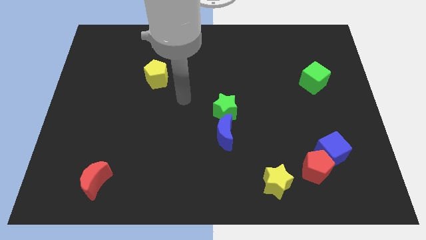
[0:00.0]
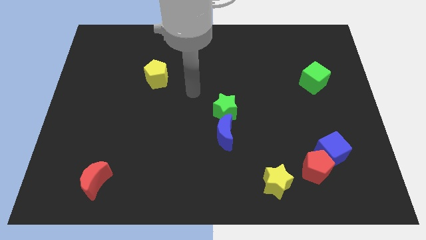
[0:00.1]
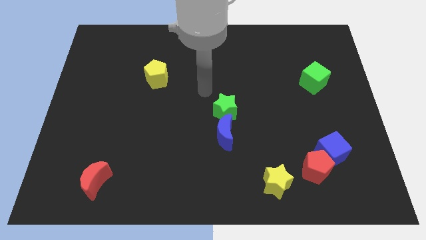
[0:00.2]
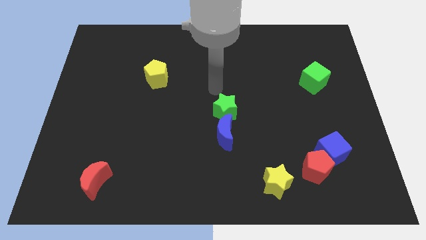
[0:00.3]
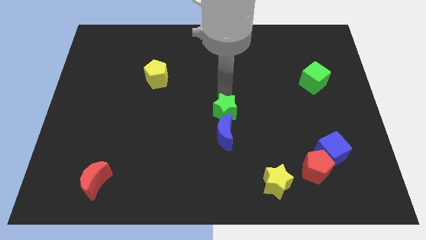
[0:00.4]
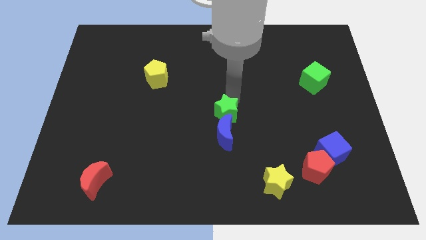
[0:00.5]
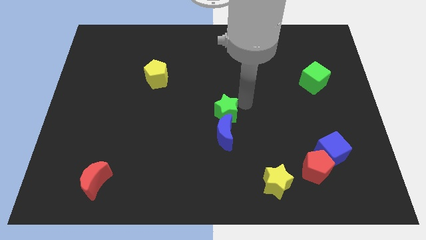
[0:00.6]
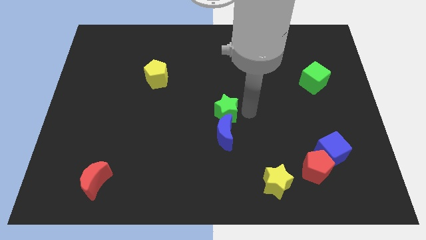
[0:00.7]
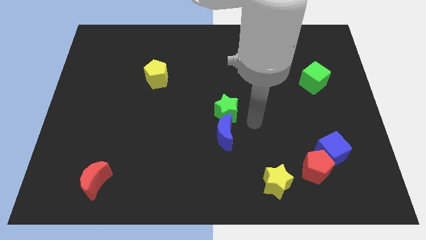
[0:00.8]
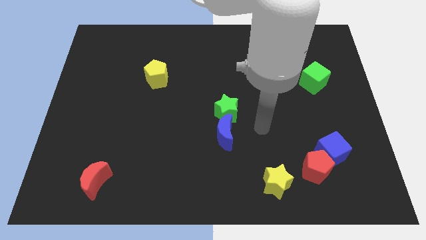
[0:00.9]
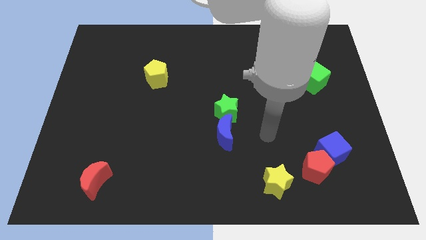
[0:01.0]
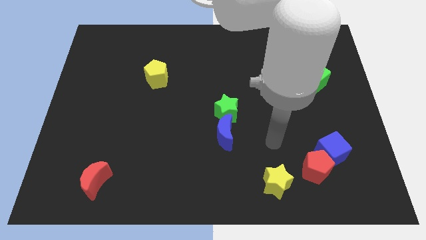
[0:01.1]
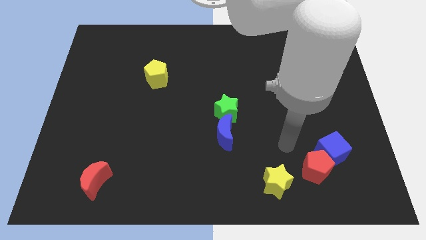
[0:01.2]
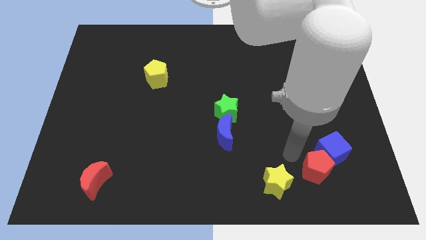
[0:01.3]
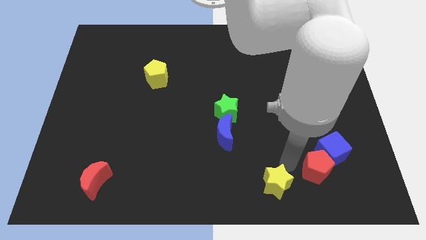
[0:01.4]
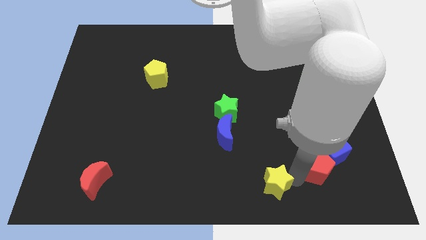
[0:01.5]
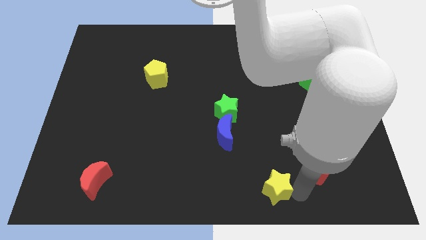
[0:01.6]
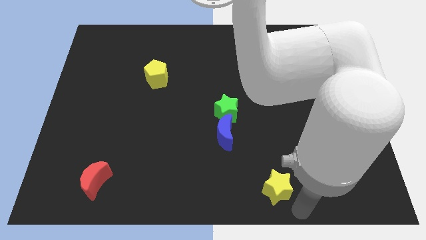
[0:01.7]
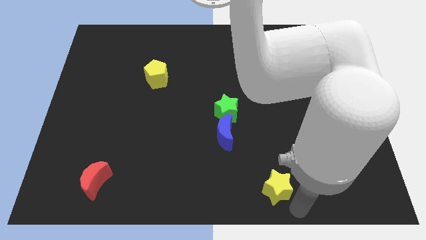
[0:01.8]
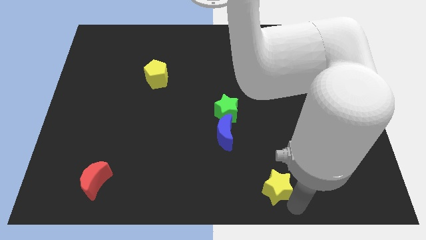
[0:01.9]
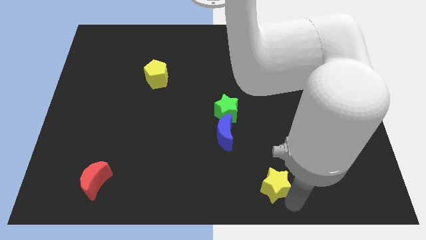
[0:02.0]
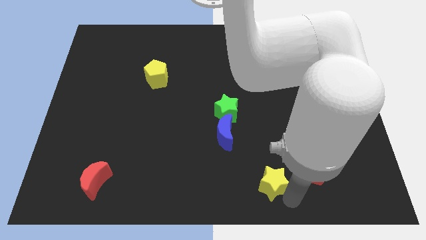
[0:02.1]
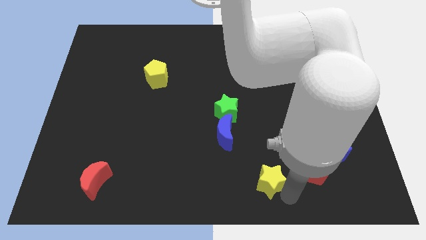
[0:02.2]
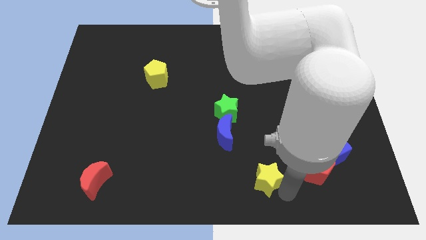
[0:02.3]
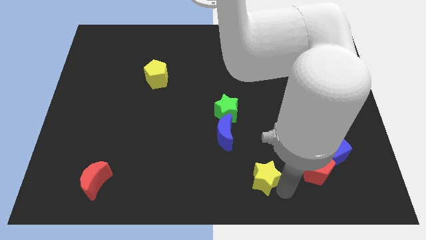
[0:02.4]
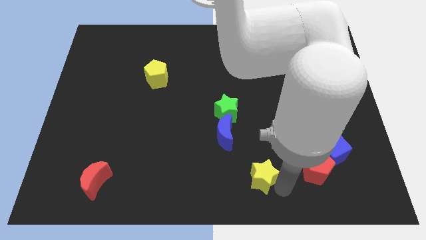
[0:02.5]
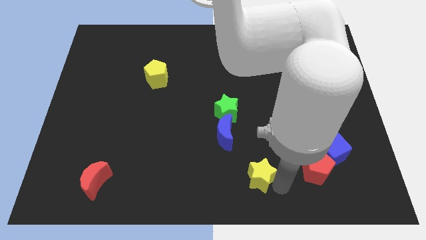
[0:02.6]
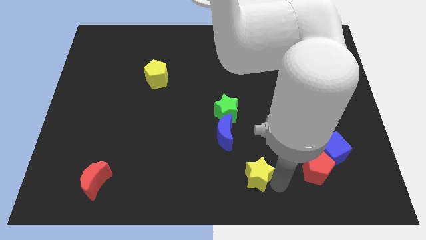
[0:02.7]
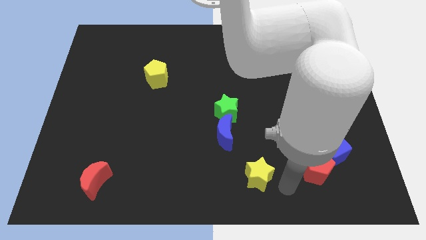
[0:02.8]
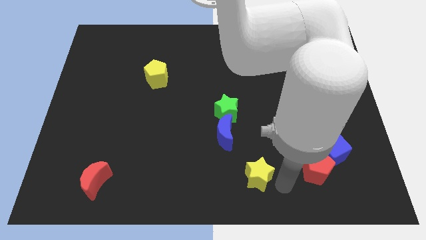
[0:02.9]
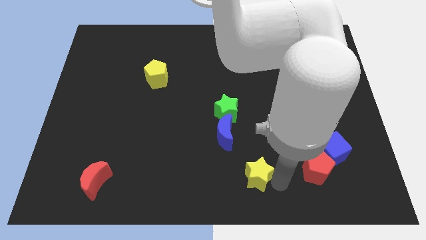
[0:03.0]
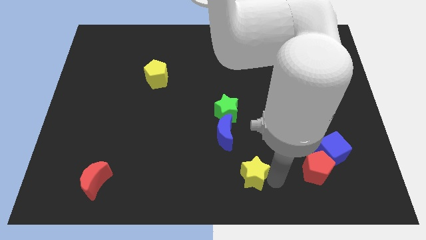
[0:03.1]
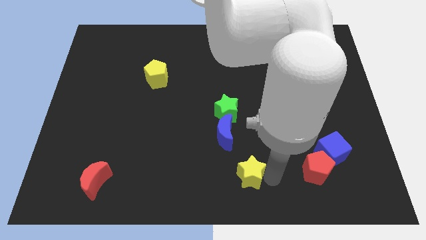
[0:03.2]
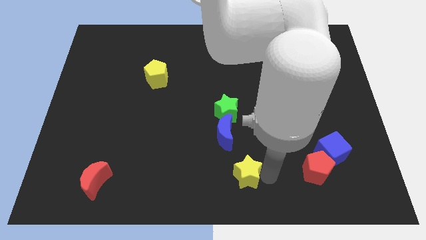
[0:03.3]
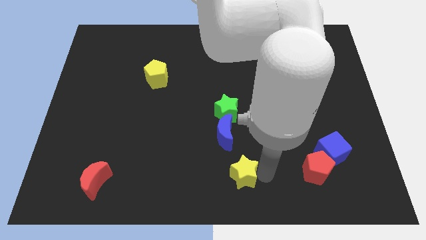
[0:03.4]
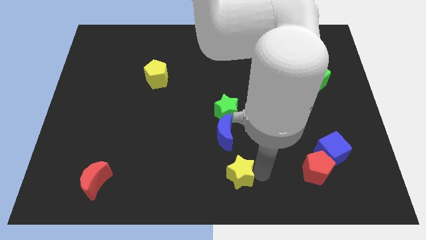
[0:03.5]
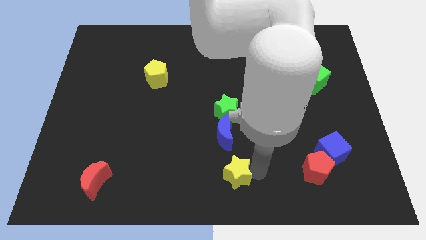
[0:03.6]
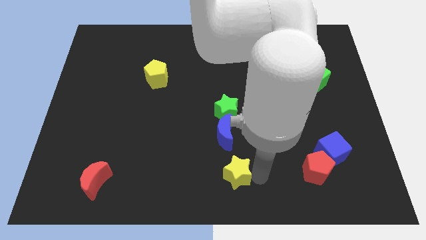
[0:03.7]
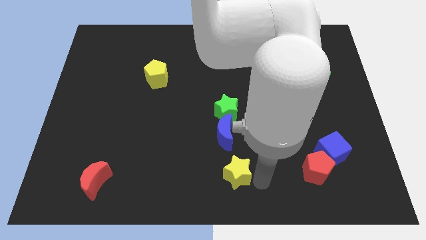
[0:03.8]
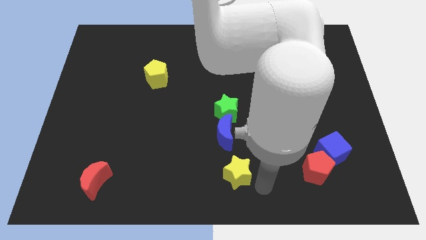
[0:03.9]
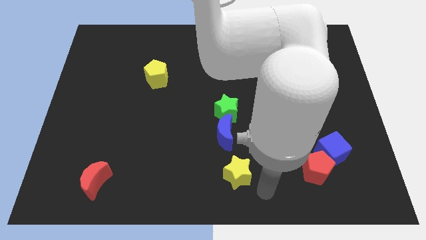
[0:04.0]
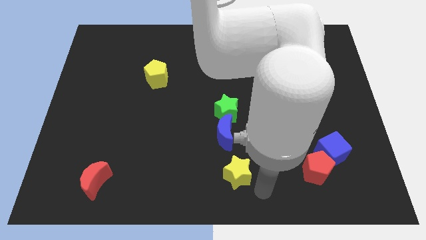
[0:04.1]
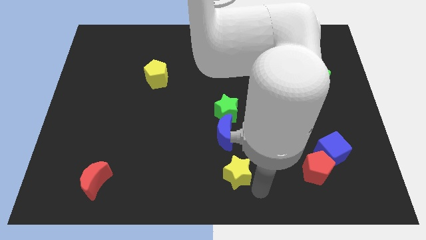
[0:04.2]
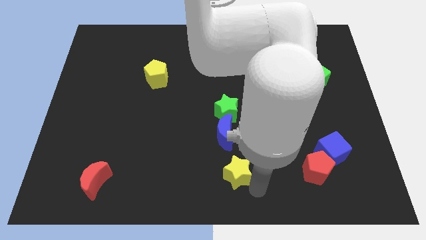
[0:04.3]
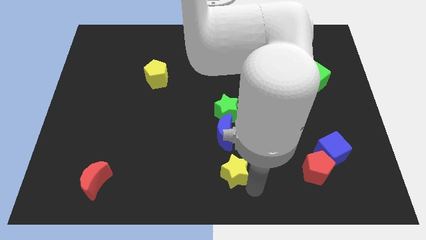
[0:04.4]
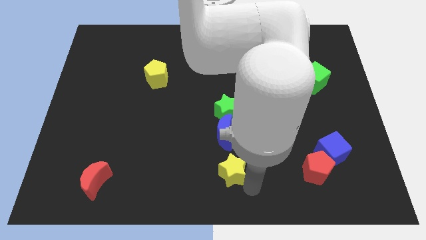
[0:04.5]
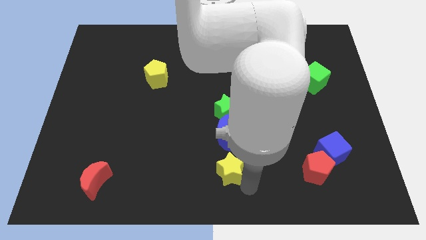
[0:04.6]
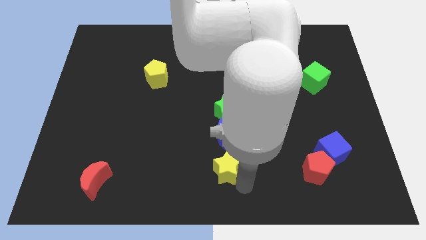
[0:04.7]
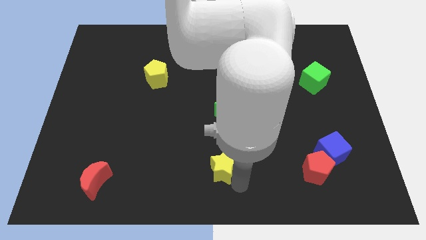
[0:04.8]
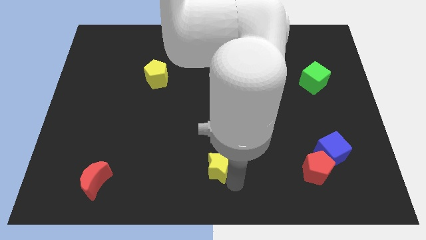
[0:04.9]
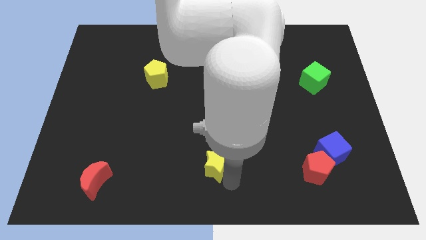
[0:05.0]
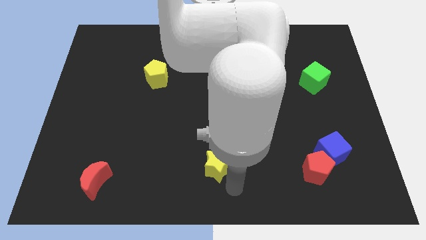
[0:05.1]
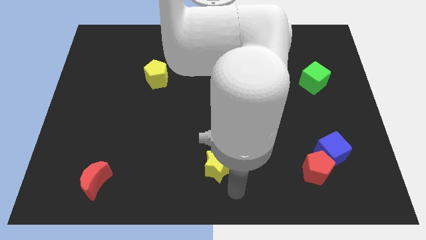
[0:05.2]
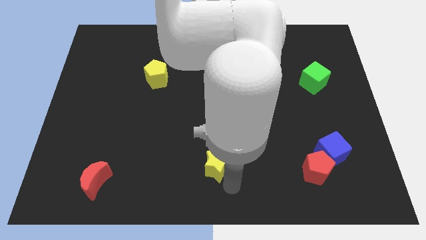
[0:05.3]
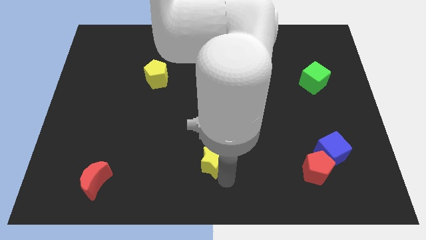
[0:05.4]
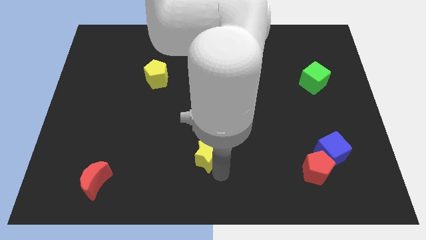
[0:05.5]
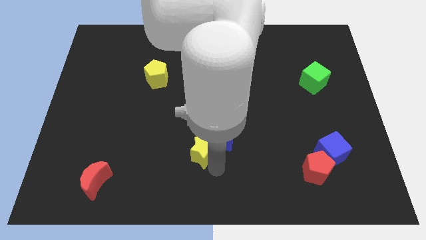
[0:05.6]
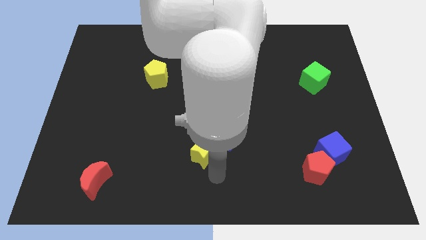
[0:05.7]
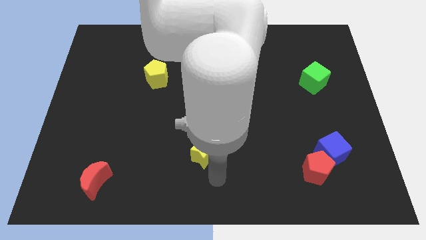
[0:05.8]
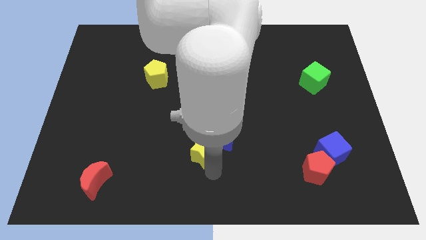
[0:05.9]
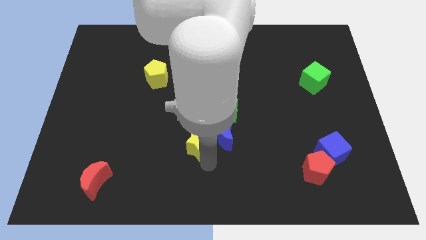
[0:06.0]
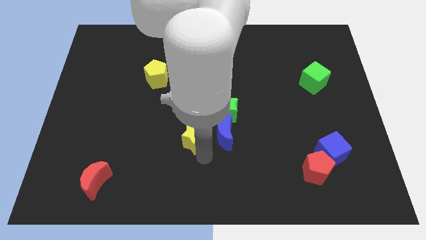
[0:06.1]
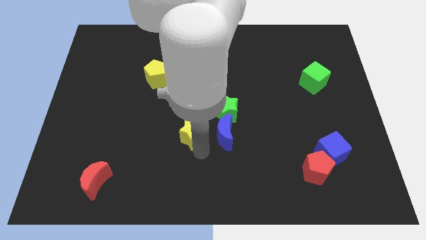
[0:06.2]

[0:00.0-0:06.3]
slide the yellow star diagonally upwards and left

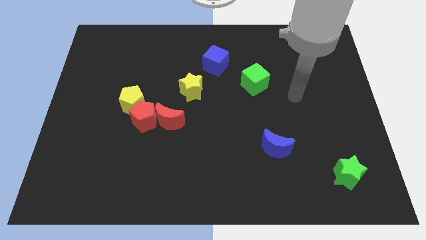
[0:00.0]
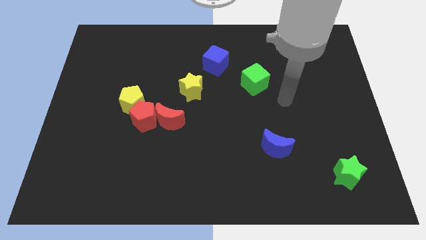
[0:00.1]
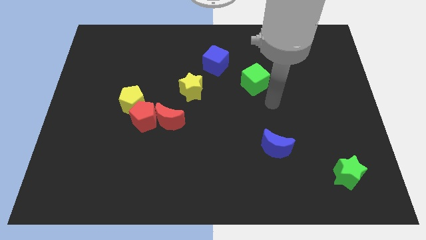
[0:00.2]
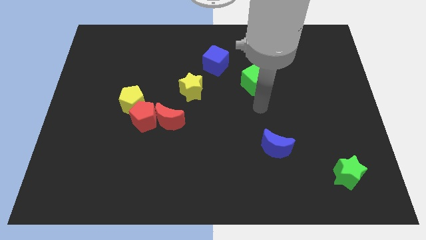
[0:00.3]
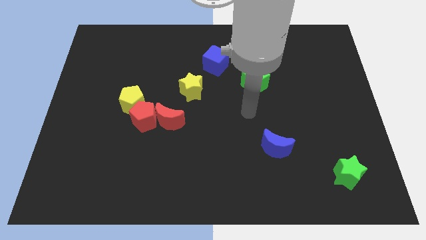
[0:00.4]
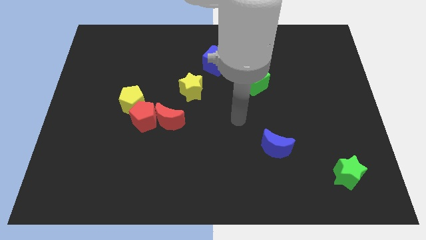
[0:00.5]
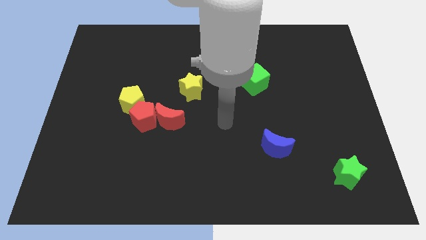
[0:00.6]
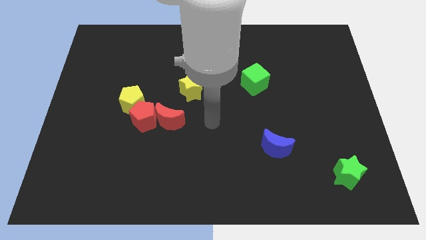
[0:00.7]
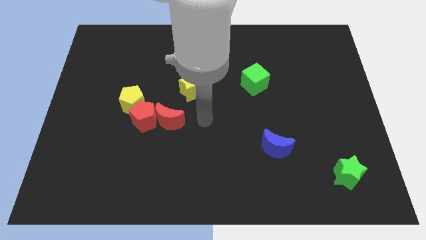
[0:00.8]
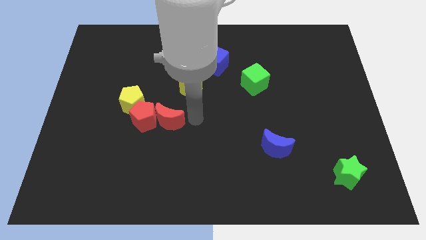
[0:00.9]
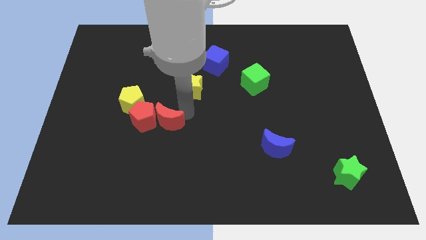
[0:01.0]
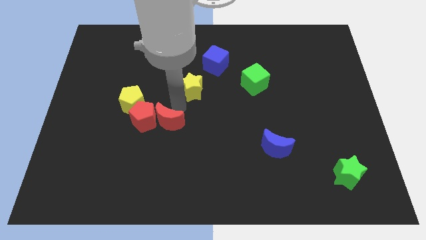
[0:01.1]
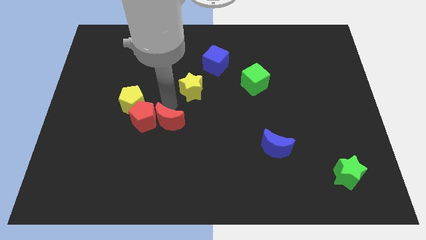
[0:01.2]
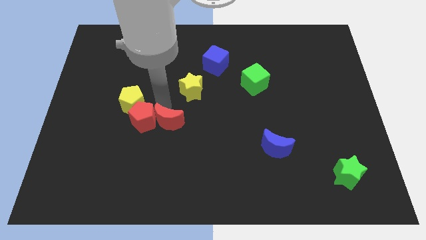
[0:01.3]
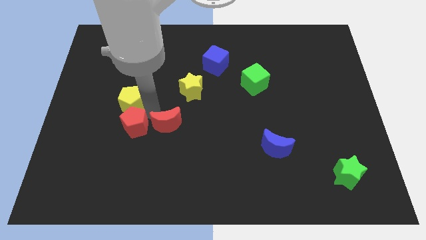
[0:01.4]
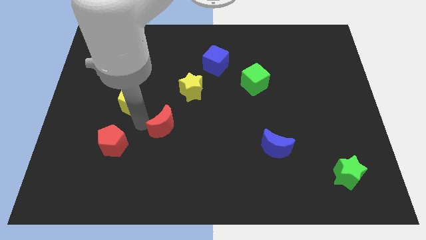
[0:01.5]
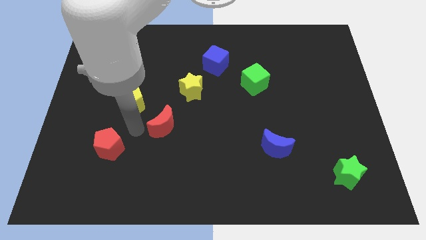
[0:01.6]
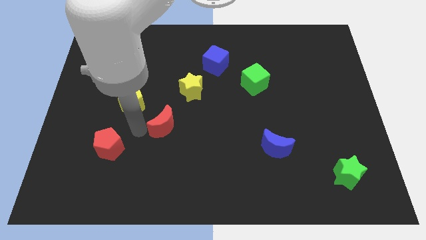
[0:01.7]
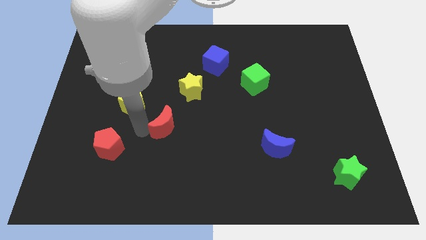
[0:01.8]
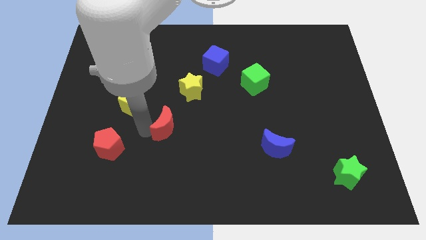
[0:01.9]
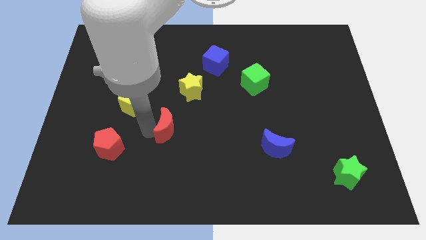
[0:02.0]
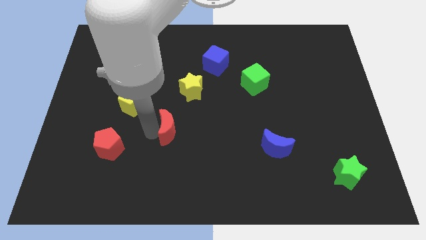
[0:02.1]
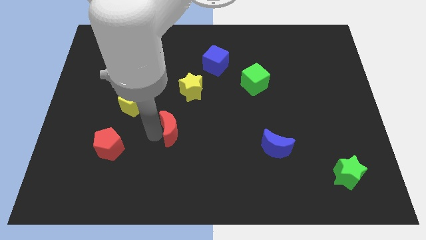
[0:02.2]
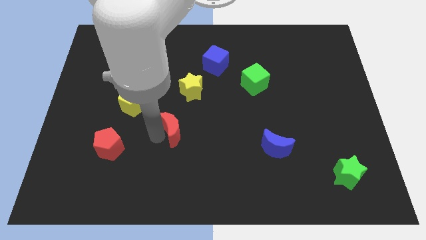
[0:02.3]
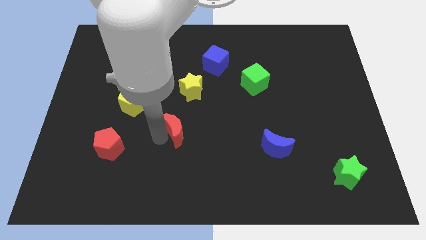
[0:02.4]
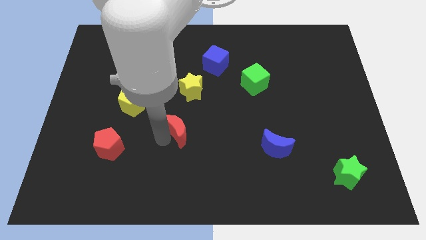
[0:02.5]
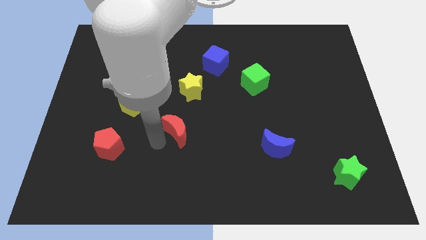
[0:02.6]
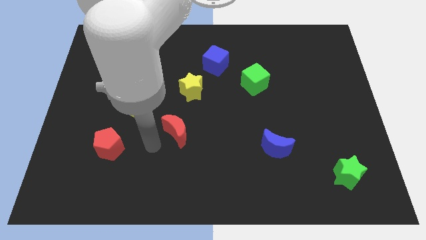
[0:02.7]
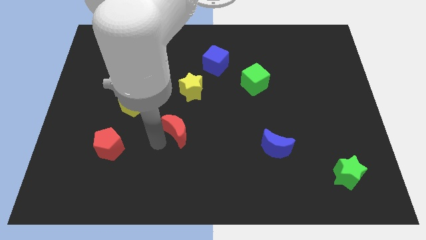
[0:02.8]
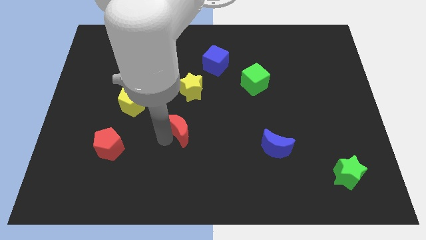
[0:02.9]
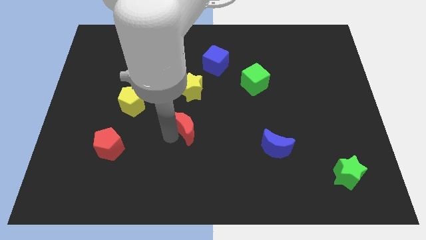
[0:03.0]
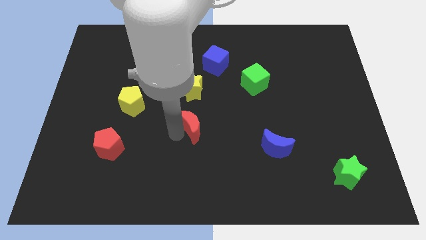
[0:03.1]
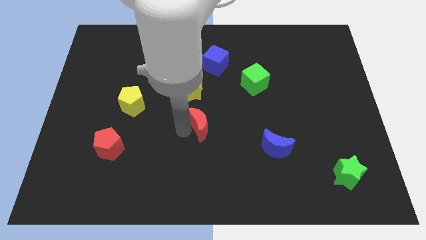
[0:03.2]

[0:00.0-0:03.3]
slide the red moon right somewhat
